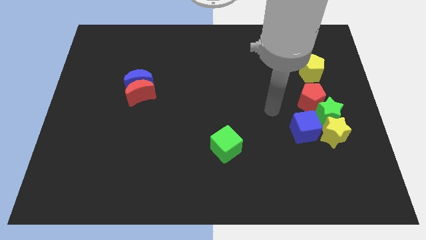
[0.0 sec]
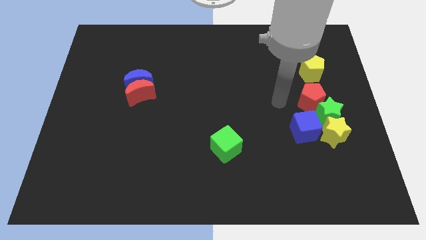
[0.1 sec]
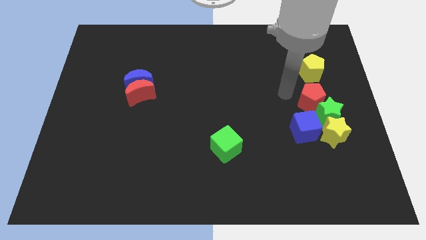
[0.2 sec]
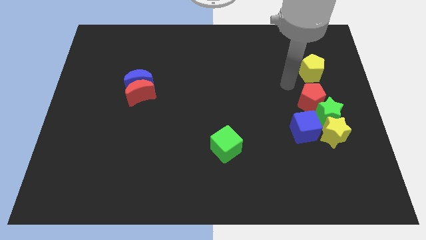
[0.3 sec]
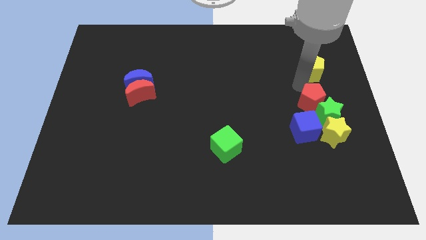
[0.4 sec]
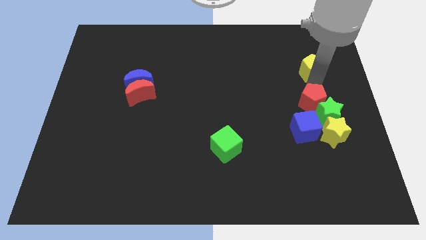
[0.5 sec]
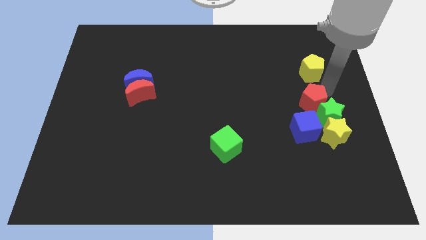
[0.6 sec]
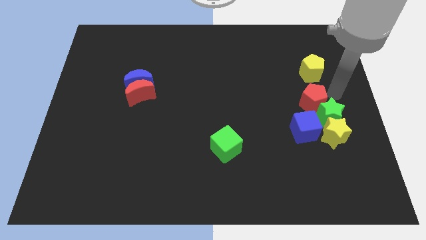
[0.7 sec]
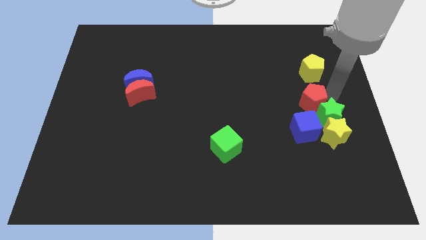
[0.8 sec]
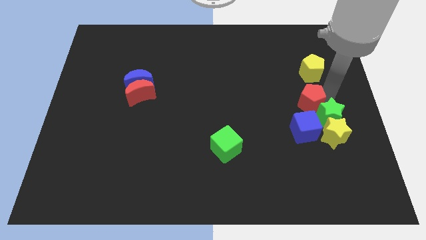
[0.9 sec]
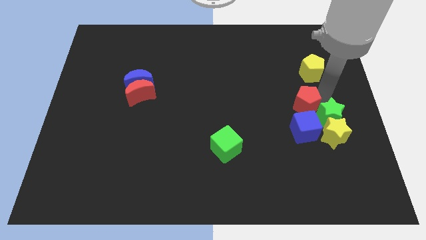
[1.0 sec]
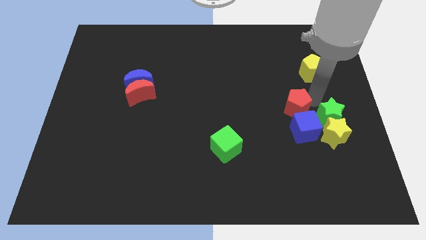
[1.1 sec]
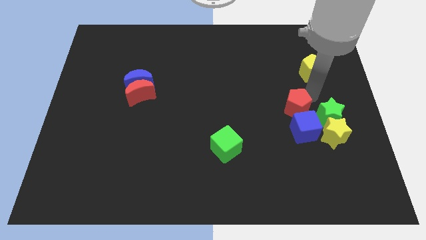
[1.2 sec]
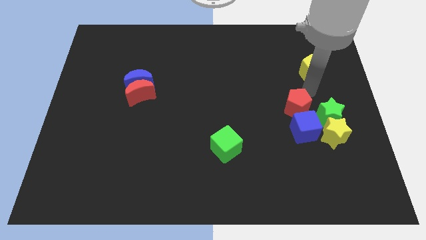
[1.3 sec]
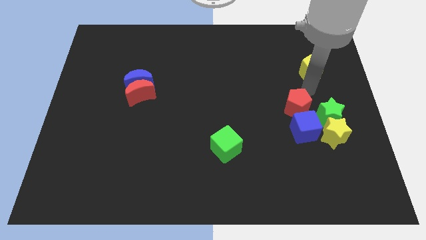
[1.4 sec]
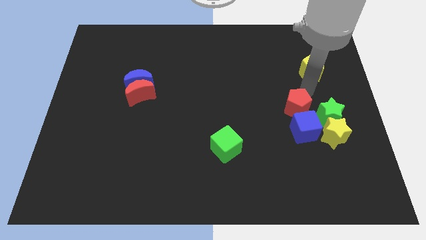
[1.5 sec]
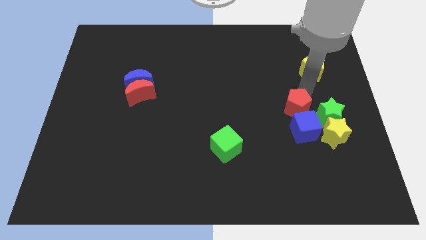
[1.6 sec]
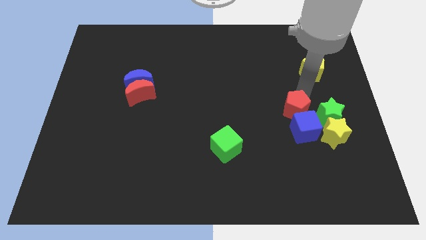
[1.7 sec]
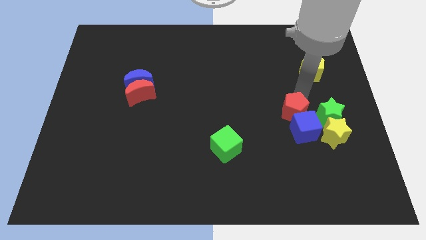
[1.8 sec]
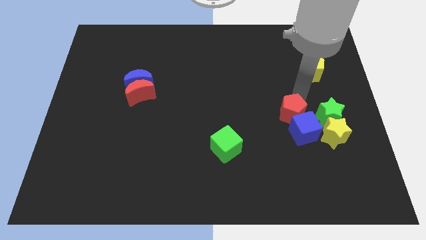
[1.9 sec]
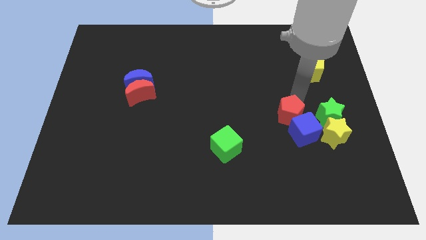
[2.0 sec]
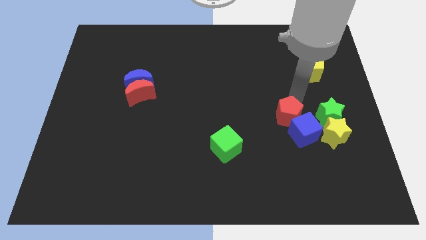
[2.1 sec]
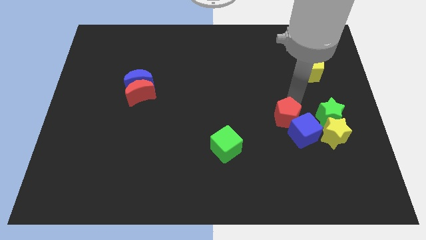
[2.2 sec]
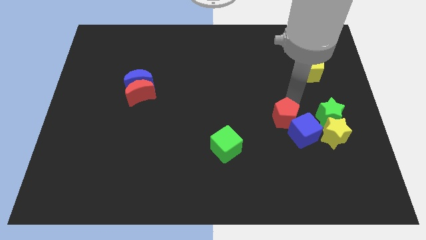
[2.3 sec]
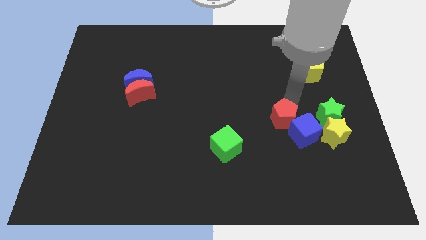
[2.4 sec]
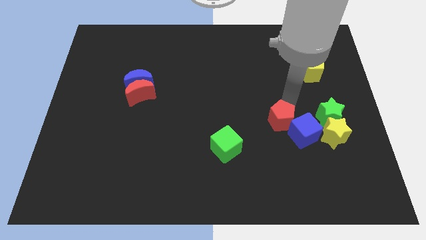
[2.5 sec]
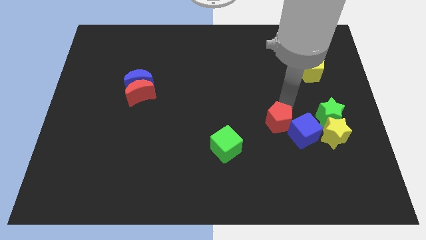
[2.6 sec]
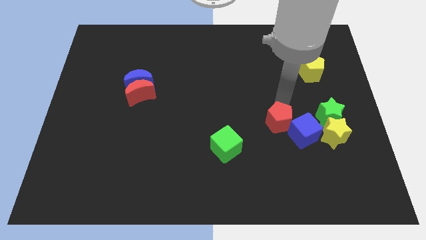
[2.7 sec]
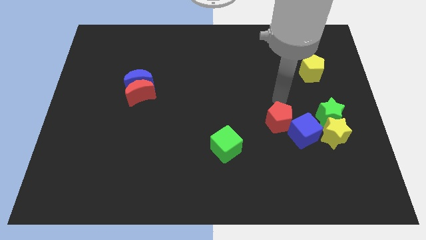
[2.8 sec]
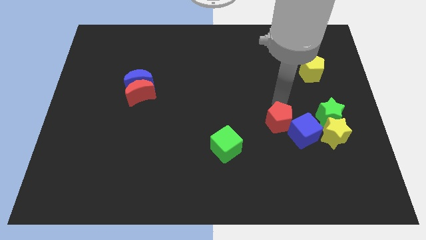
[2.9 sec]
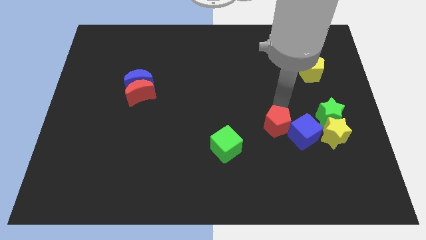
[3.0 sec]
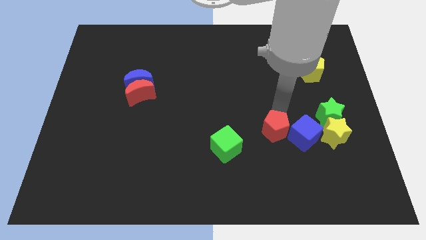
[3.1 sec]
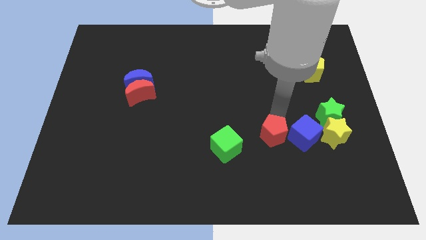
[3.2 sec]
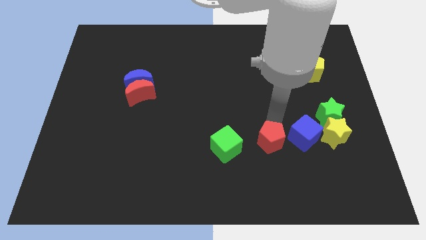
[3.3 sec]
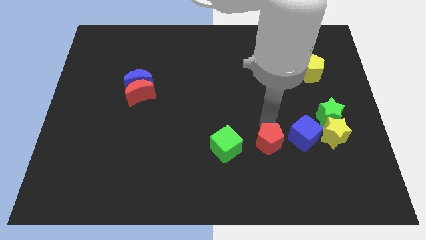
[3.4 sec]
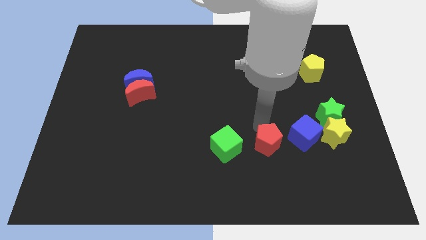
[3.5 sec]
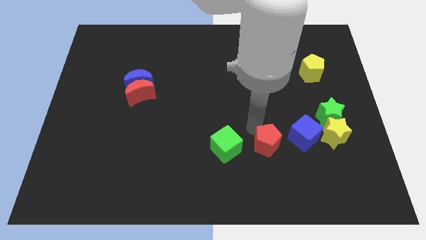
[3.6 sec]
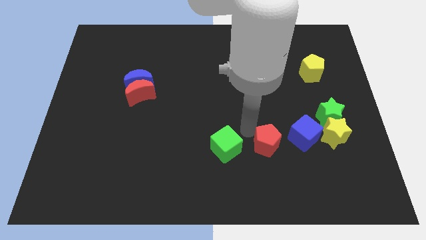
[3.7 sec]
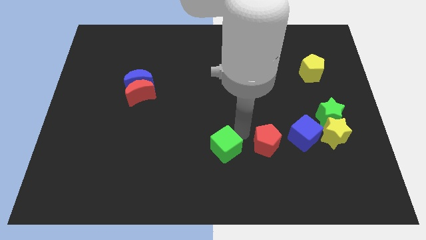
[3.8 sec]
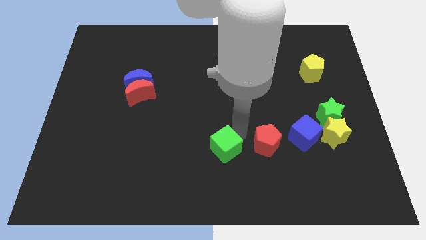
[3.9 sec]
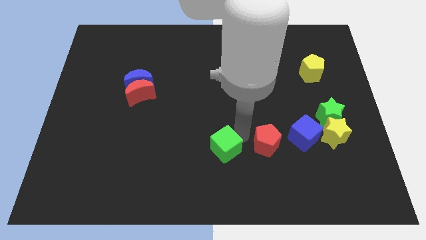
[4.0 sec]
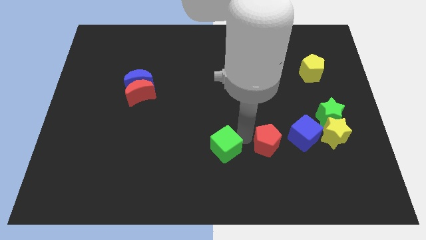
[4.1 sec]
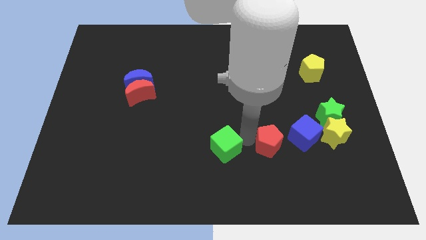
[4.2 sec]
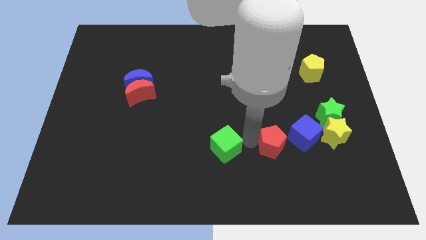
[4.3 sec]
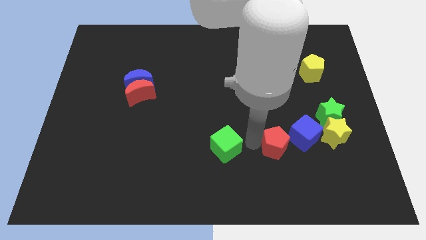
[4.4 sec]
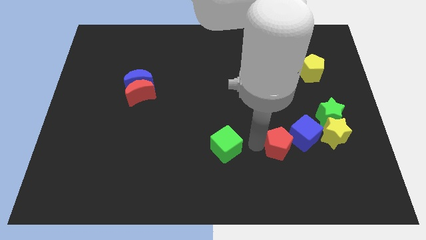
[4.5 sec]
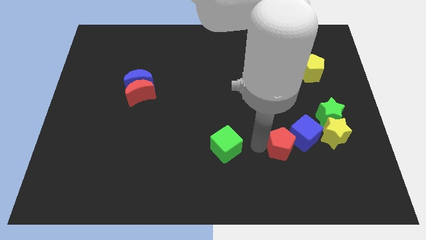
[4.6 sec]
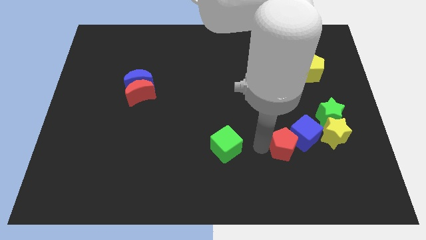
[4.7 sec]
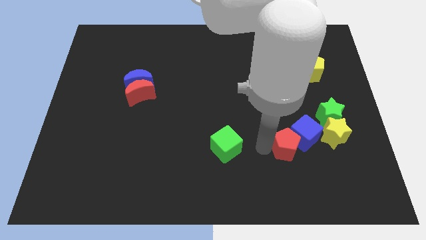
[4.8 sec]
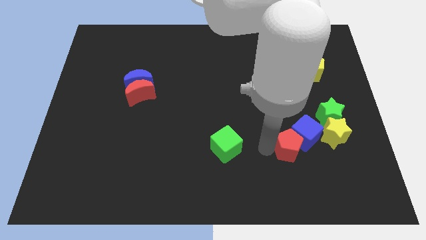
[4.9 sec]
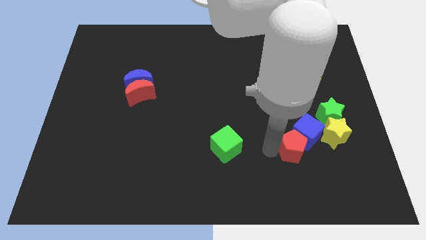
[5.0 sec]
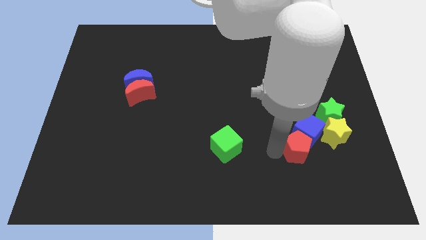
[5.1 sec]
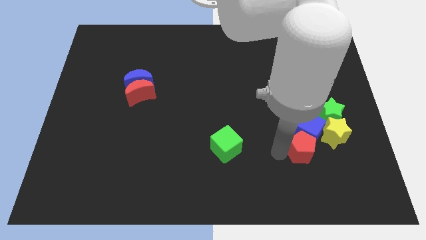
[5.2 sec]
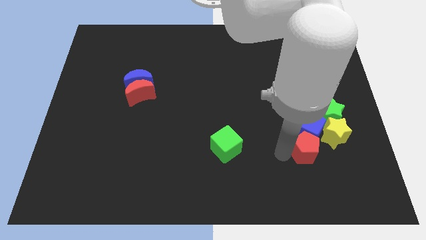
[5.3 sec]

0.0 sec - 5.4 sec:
move the red pentagon to the bottom right side of the blue cube

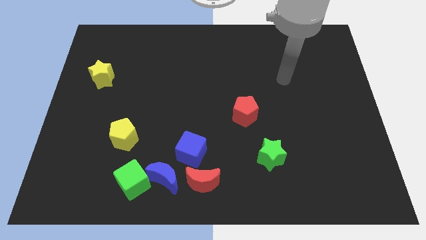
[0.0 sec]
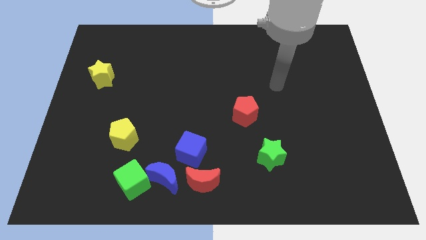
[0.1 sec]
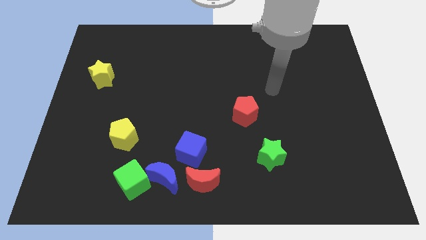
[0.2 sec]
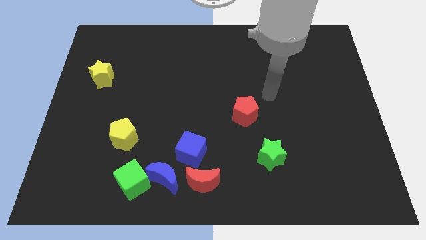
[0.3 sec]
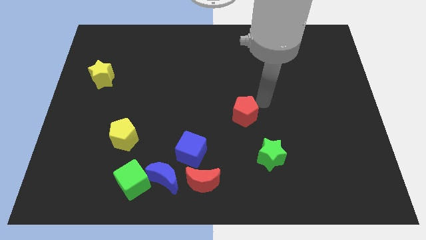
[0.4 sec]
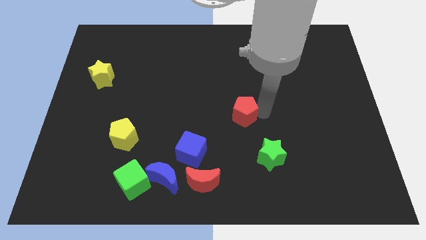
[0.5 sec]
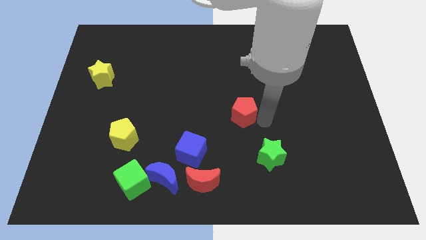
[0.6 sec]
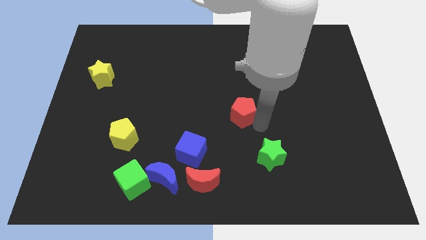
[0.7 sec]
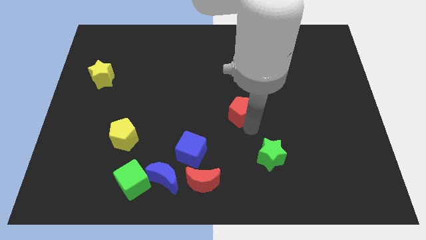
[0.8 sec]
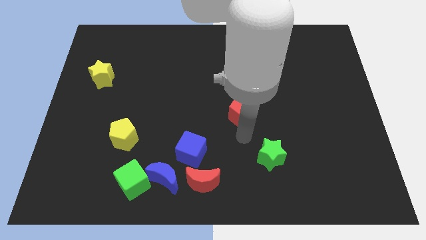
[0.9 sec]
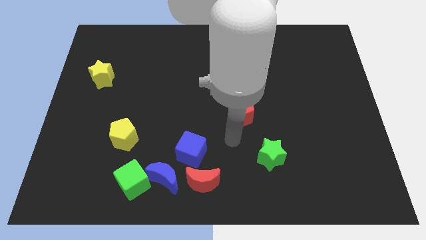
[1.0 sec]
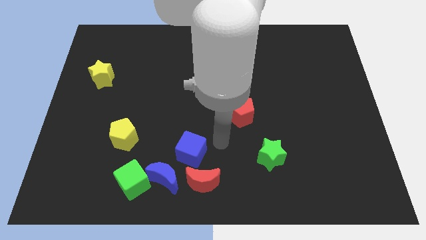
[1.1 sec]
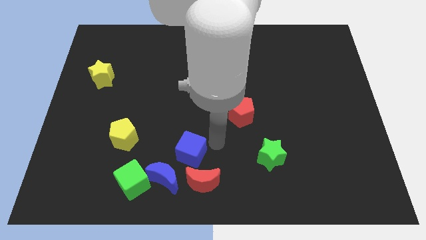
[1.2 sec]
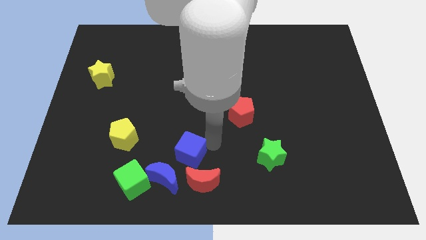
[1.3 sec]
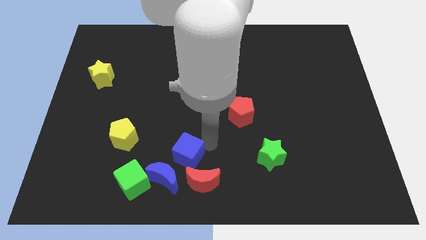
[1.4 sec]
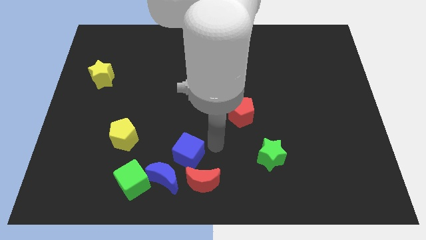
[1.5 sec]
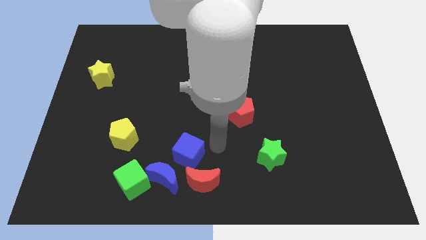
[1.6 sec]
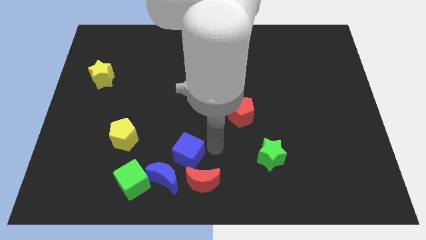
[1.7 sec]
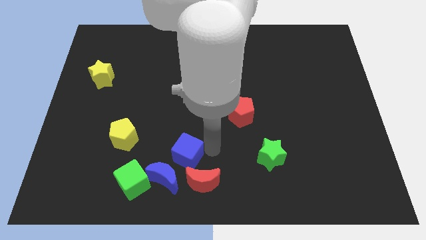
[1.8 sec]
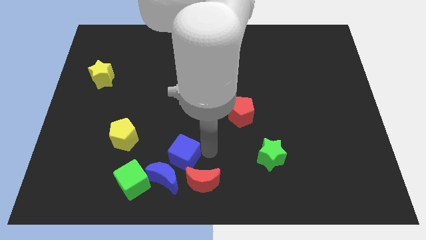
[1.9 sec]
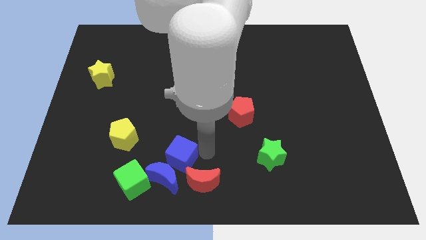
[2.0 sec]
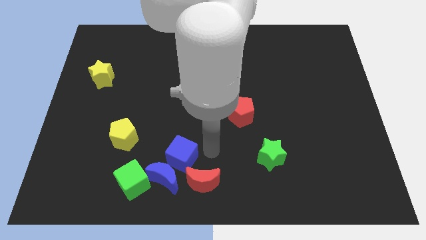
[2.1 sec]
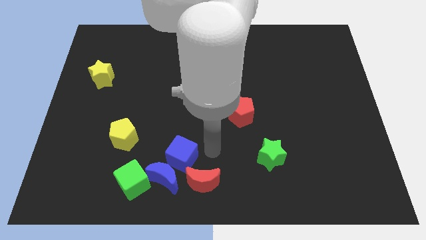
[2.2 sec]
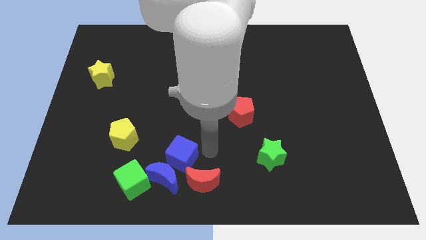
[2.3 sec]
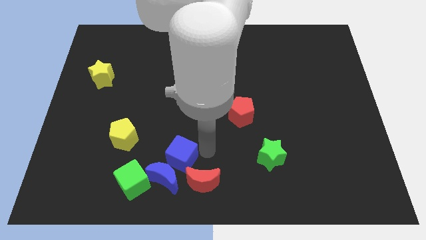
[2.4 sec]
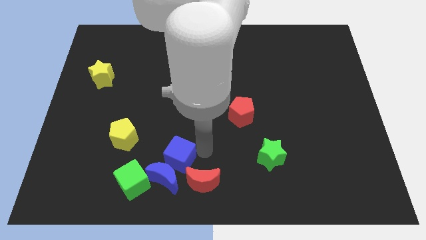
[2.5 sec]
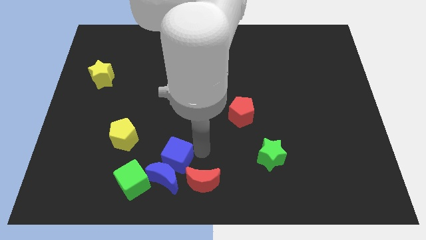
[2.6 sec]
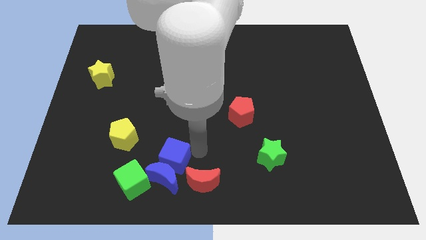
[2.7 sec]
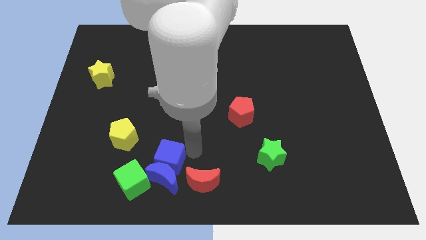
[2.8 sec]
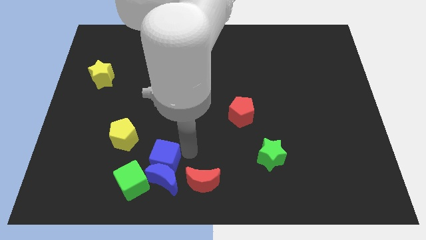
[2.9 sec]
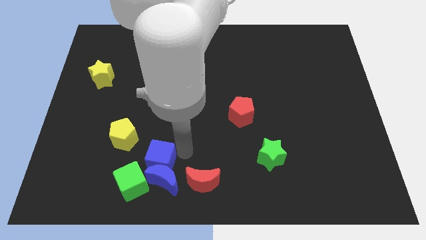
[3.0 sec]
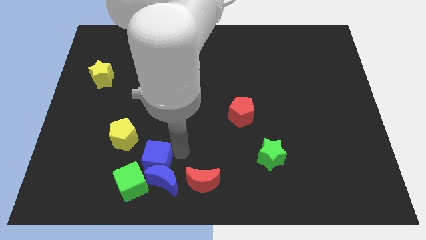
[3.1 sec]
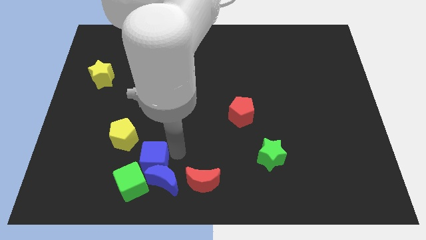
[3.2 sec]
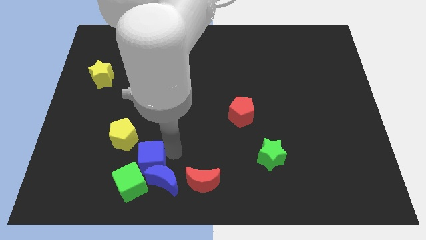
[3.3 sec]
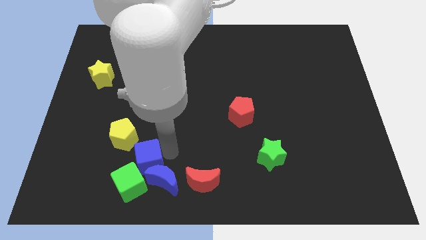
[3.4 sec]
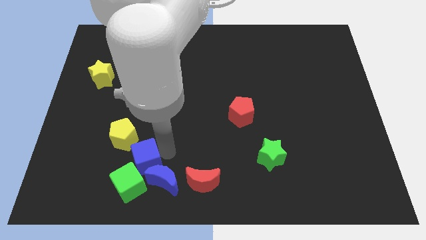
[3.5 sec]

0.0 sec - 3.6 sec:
push the blue cube left of the blue moon
